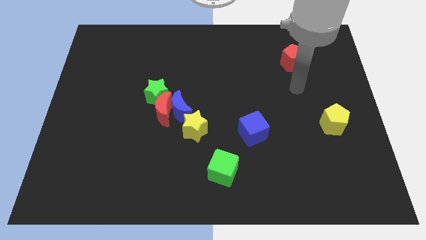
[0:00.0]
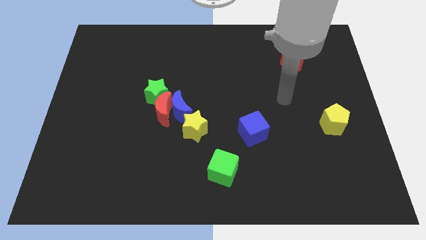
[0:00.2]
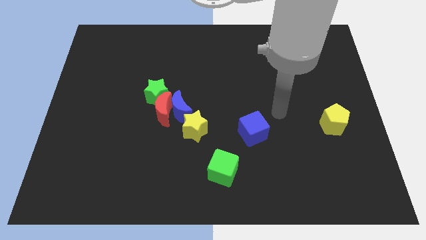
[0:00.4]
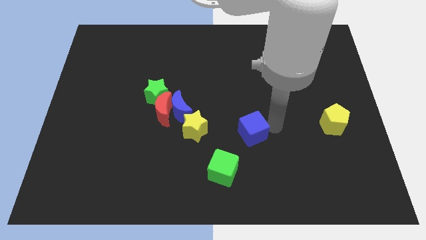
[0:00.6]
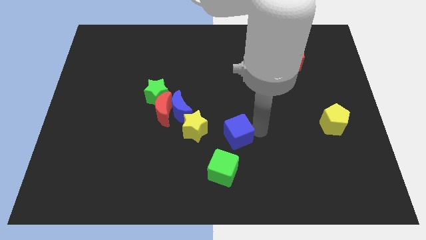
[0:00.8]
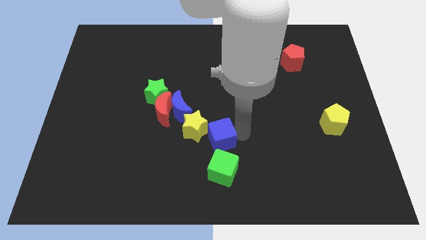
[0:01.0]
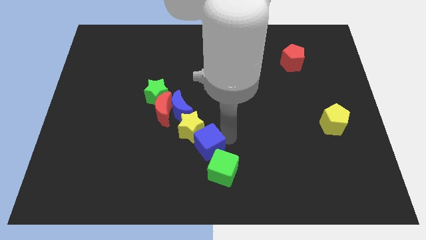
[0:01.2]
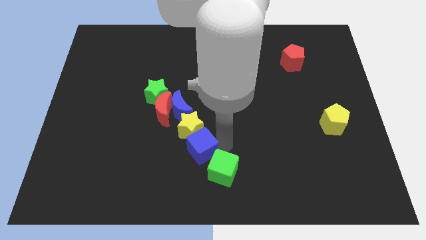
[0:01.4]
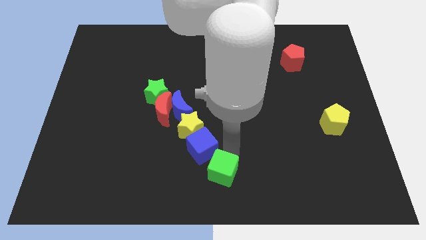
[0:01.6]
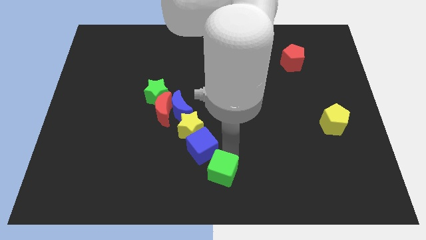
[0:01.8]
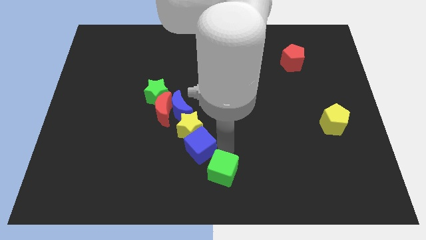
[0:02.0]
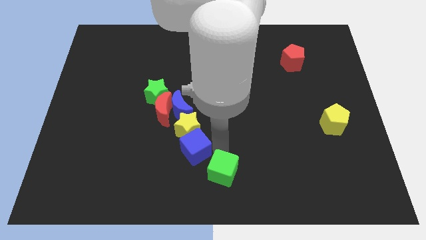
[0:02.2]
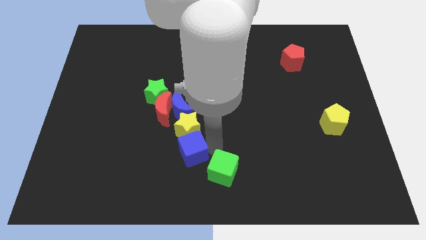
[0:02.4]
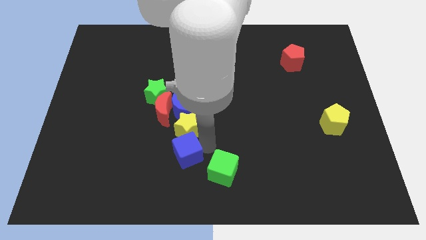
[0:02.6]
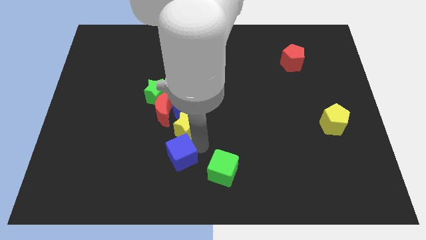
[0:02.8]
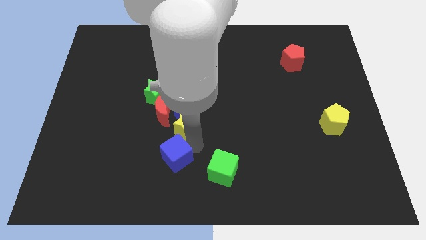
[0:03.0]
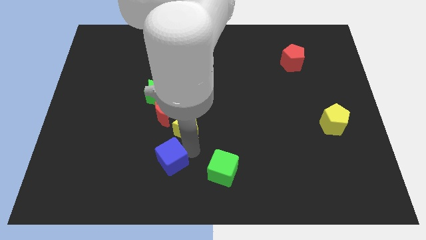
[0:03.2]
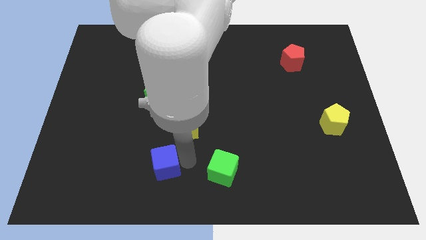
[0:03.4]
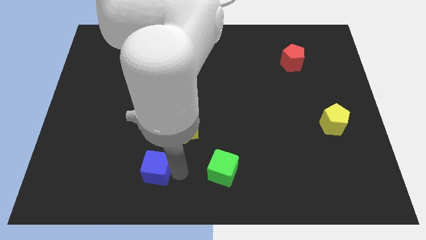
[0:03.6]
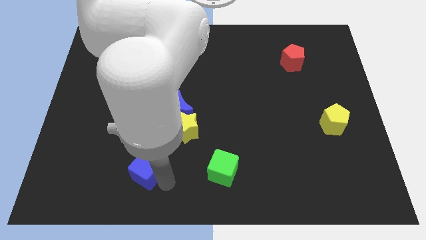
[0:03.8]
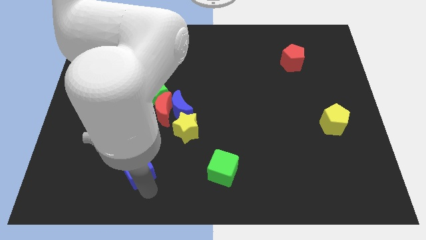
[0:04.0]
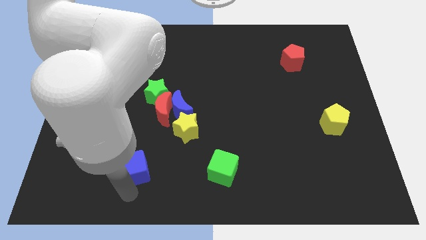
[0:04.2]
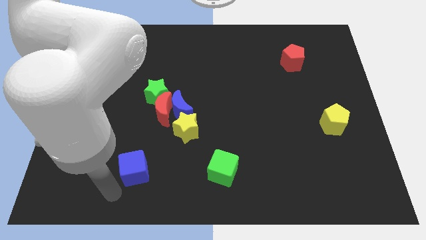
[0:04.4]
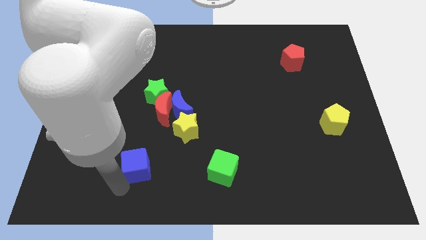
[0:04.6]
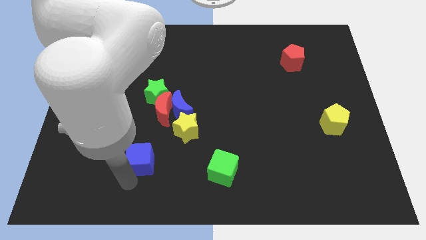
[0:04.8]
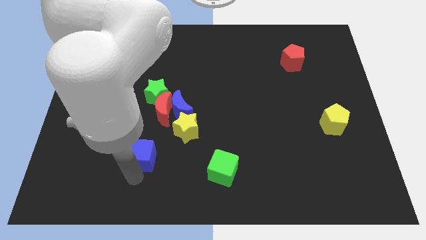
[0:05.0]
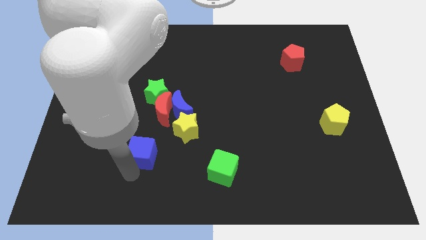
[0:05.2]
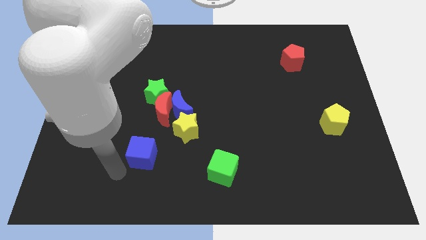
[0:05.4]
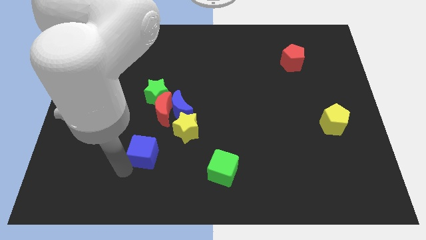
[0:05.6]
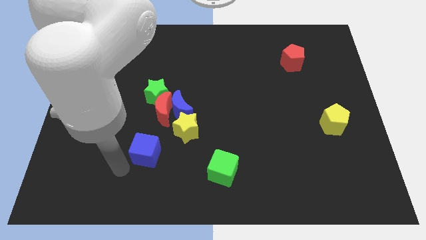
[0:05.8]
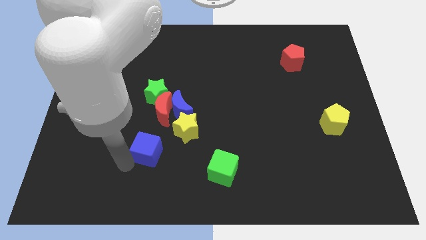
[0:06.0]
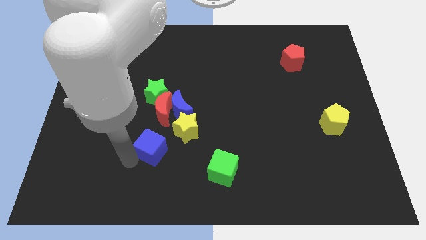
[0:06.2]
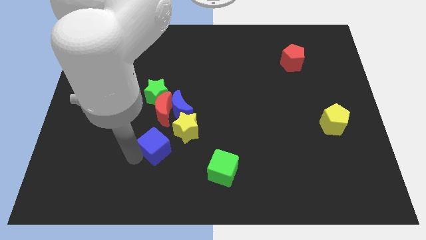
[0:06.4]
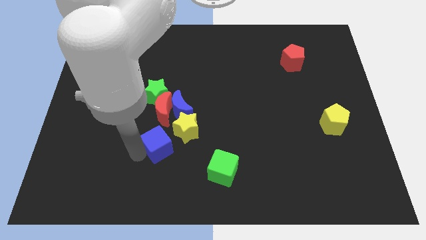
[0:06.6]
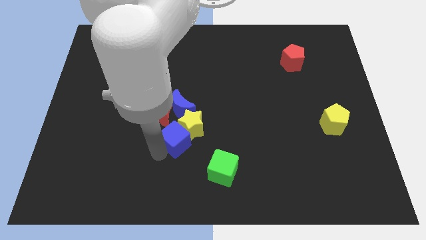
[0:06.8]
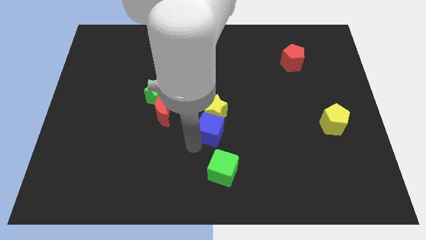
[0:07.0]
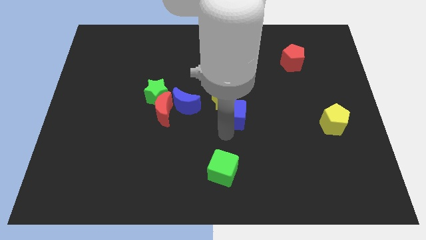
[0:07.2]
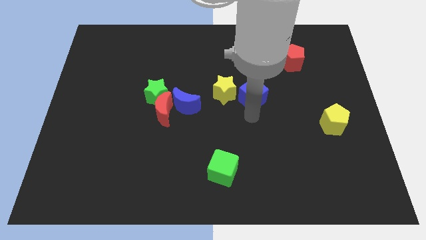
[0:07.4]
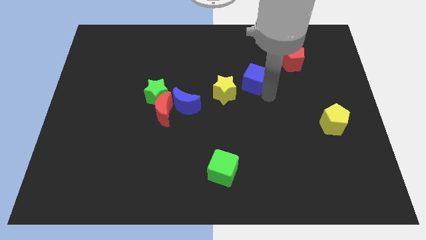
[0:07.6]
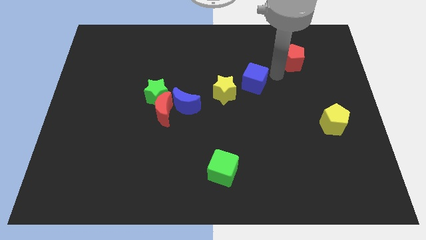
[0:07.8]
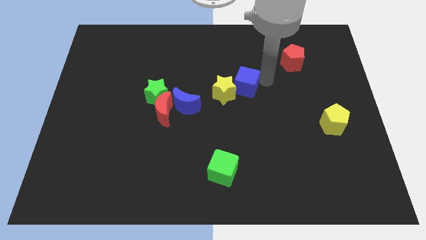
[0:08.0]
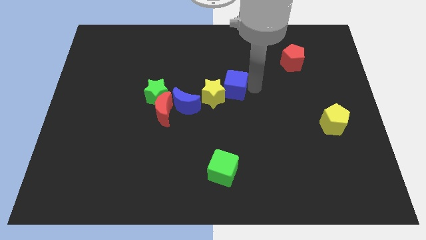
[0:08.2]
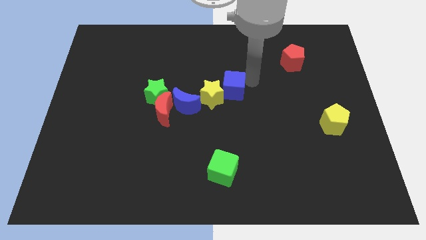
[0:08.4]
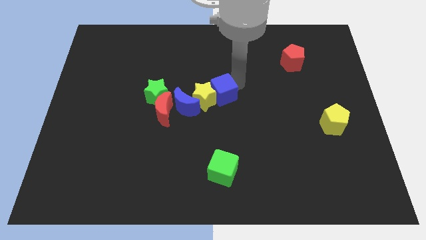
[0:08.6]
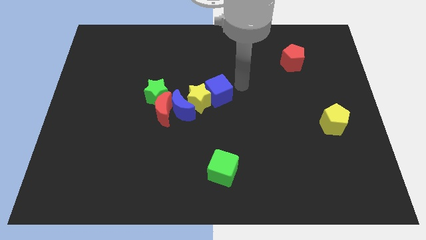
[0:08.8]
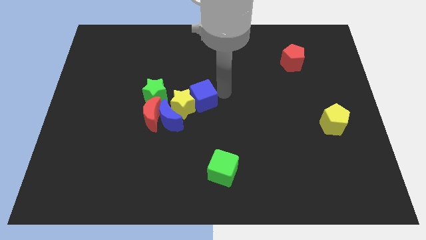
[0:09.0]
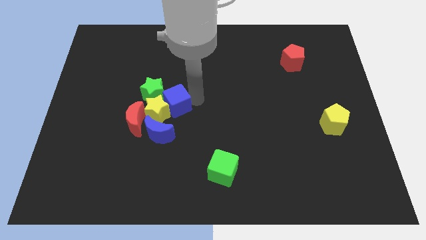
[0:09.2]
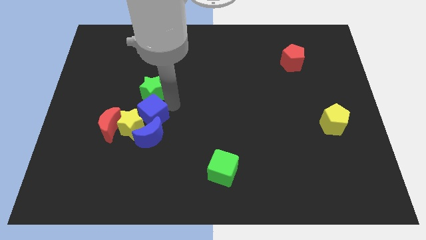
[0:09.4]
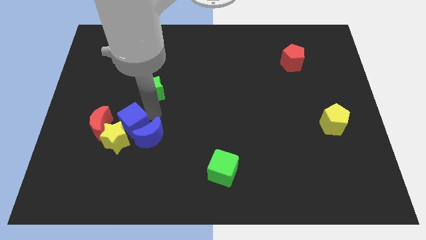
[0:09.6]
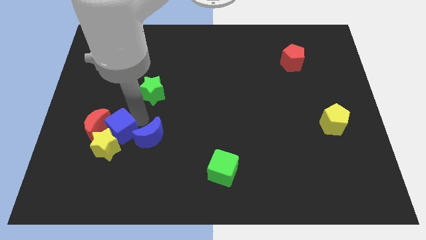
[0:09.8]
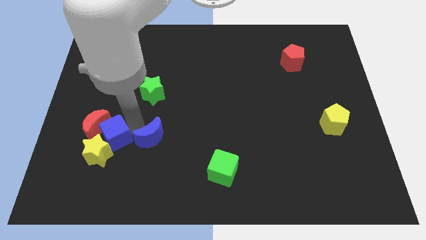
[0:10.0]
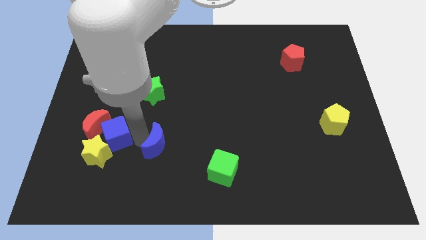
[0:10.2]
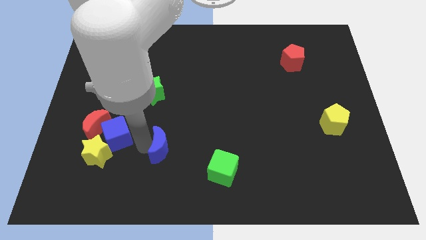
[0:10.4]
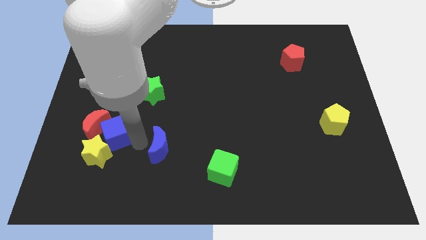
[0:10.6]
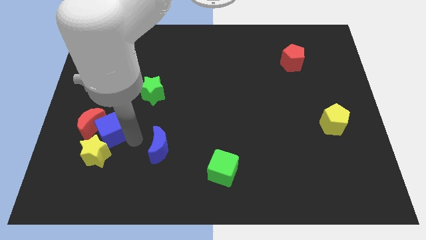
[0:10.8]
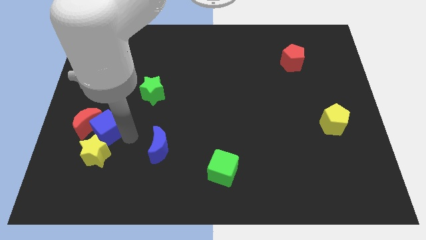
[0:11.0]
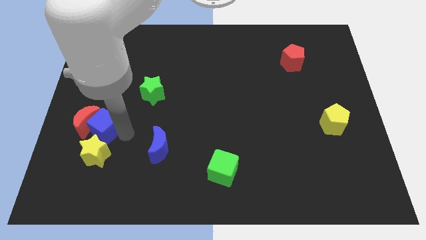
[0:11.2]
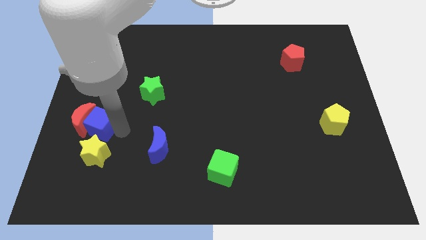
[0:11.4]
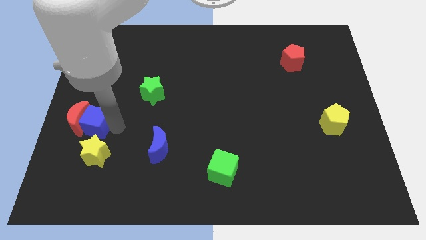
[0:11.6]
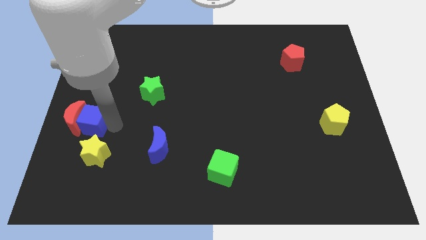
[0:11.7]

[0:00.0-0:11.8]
move the blue cube to the left side of the board

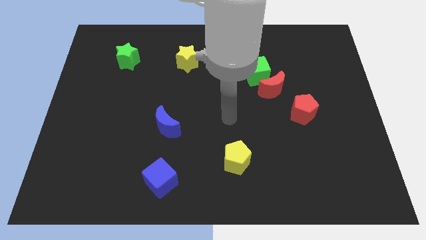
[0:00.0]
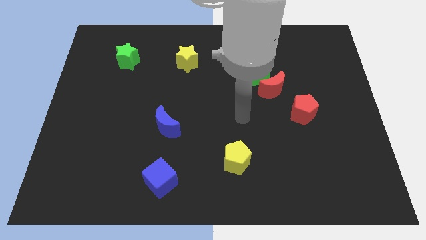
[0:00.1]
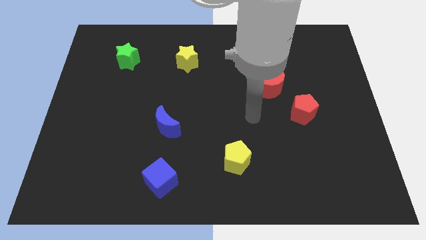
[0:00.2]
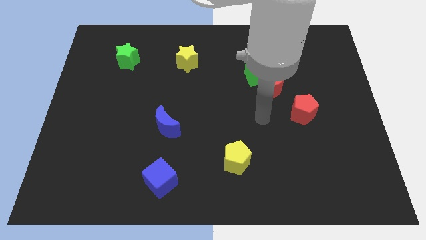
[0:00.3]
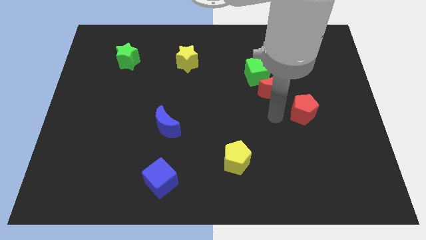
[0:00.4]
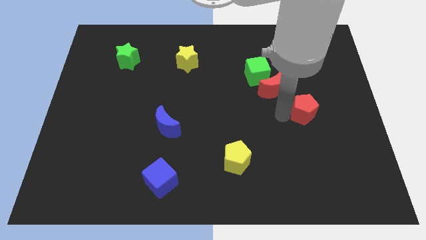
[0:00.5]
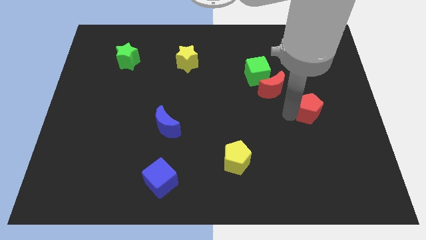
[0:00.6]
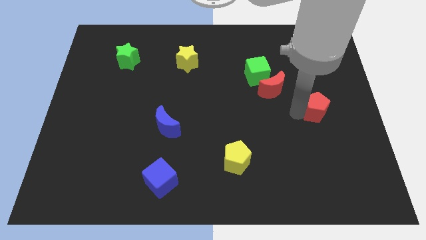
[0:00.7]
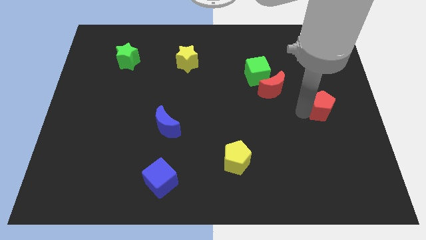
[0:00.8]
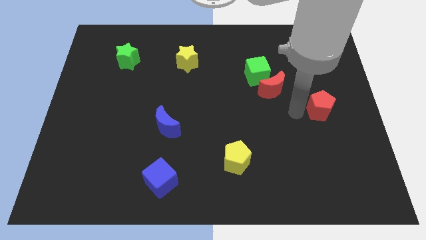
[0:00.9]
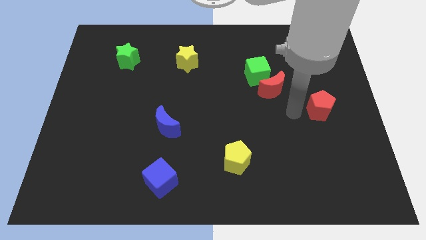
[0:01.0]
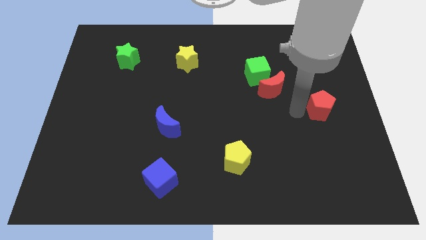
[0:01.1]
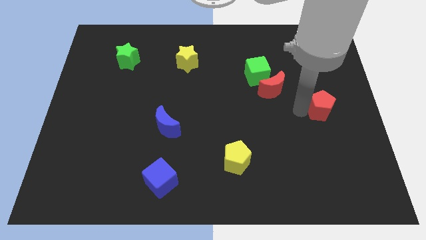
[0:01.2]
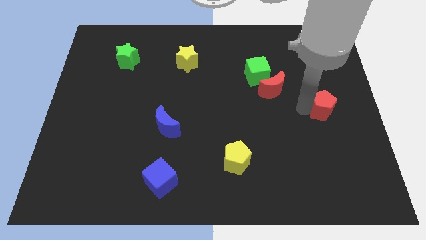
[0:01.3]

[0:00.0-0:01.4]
push the red pentagon to the right side of the board
